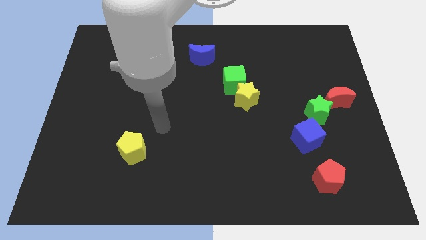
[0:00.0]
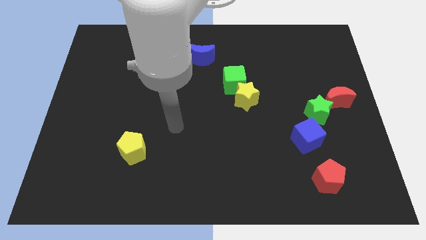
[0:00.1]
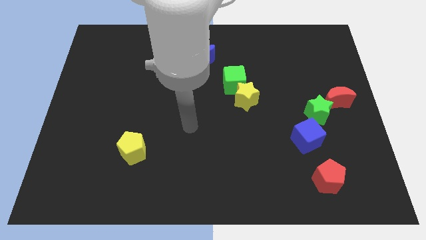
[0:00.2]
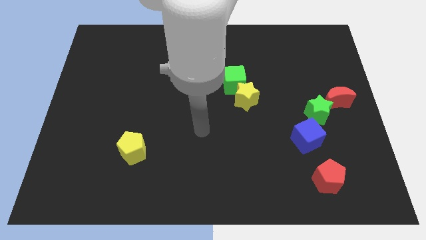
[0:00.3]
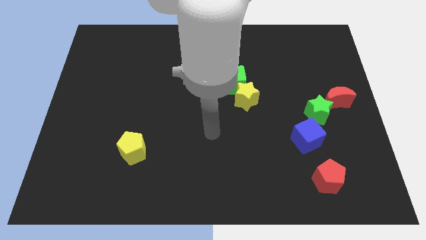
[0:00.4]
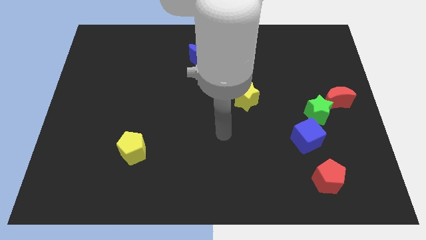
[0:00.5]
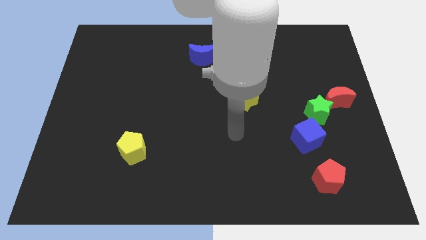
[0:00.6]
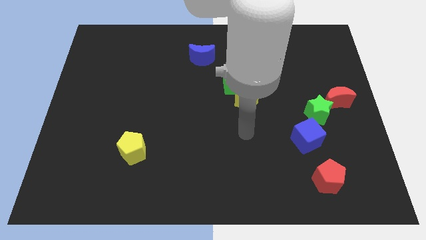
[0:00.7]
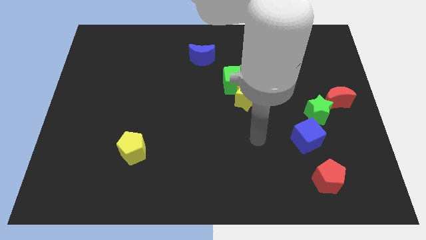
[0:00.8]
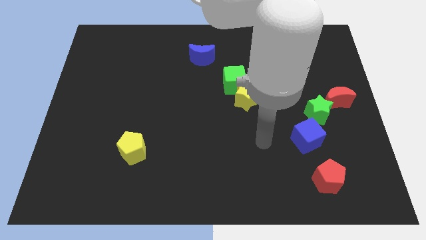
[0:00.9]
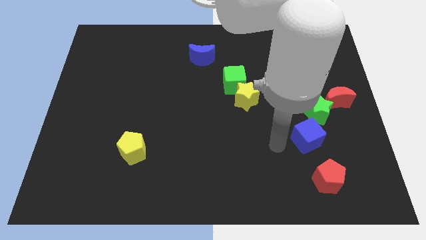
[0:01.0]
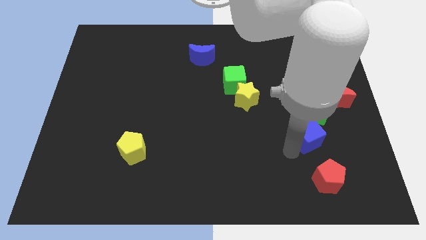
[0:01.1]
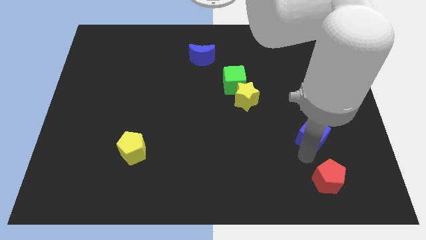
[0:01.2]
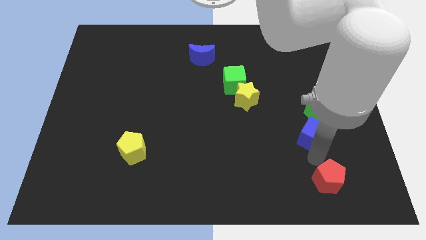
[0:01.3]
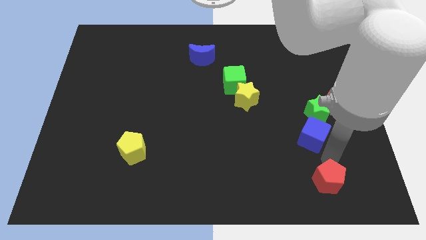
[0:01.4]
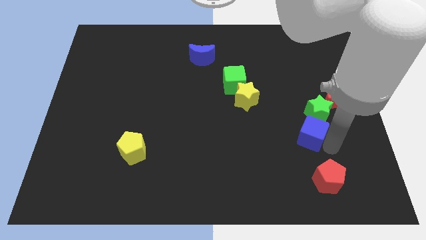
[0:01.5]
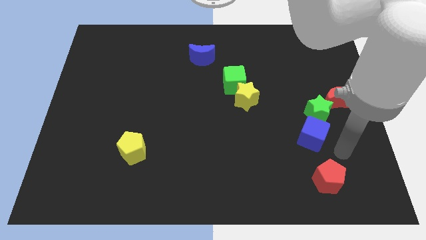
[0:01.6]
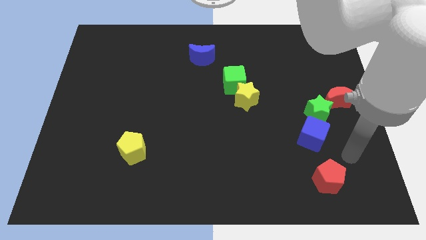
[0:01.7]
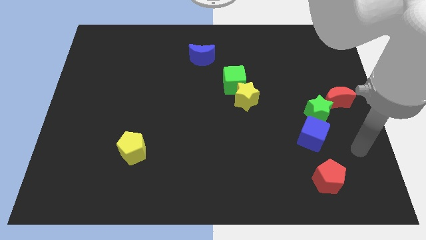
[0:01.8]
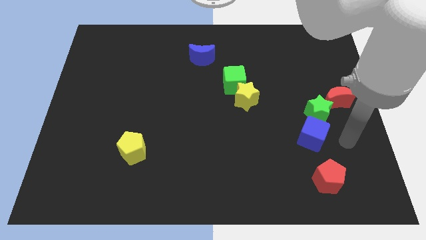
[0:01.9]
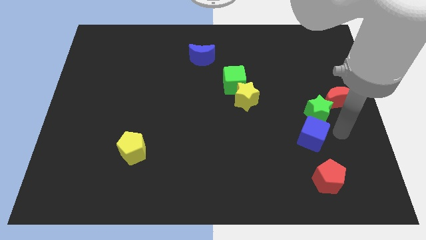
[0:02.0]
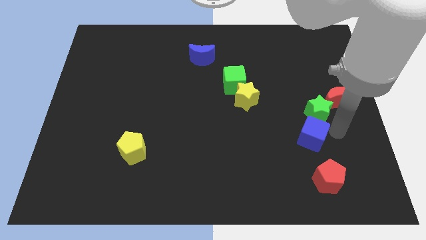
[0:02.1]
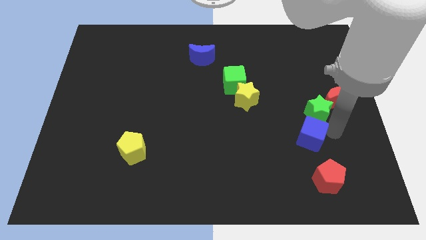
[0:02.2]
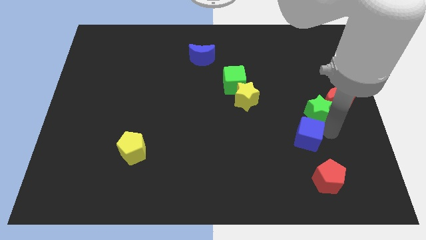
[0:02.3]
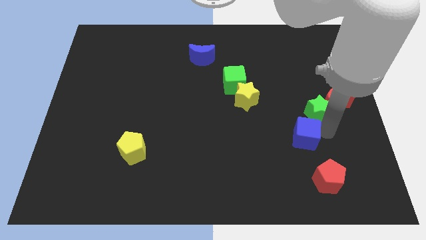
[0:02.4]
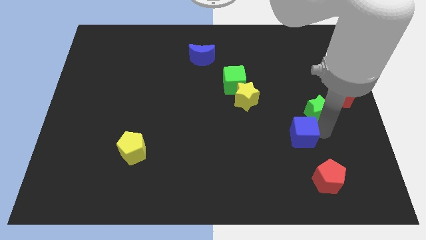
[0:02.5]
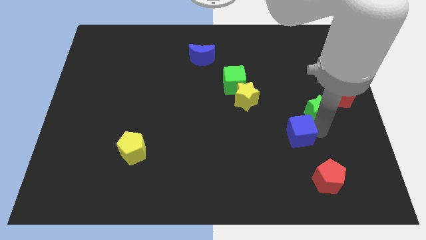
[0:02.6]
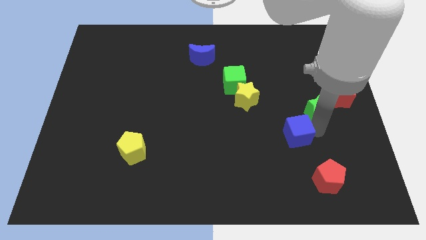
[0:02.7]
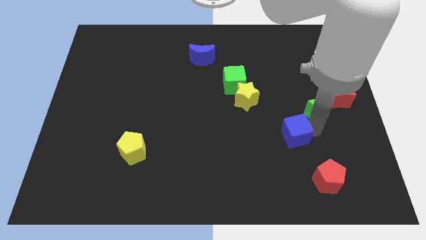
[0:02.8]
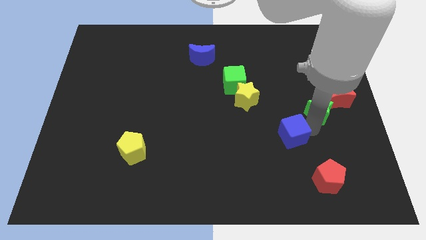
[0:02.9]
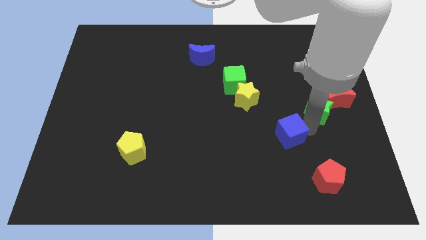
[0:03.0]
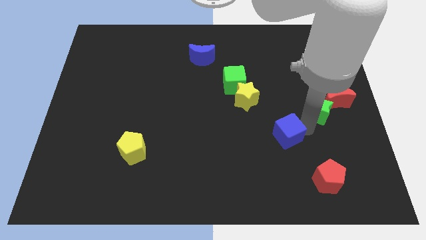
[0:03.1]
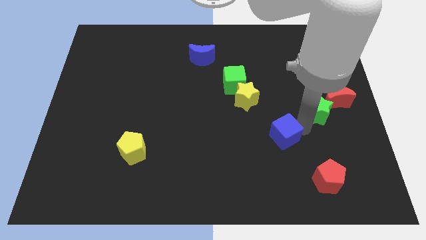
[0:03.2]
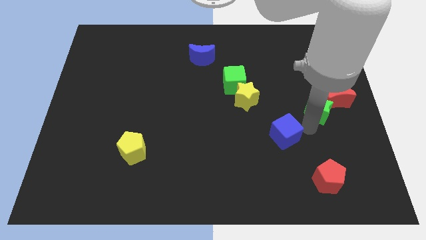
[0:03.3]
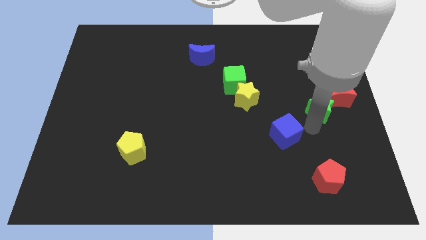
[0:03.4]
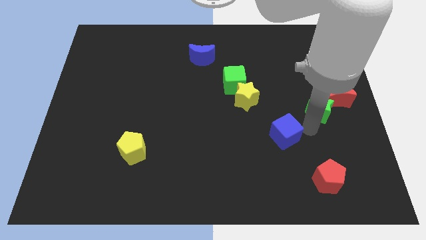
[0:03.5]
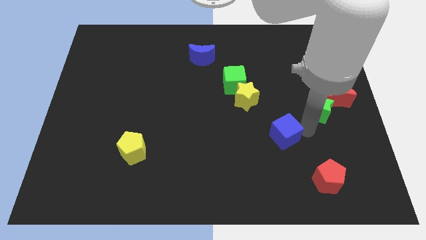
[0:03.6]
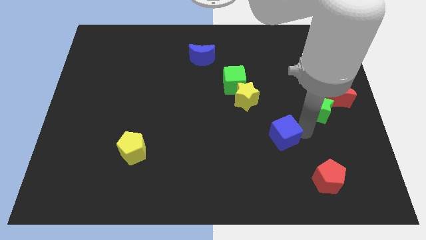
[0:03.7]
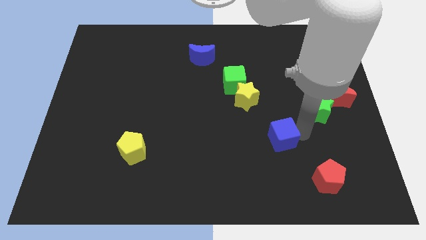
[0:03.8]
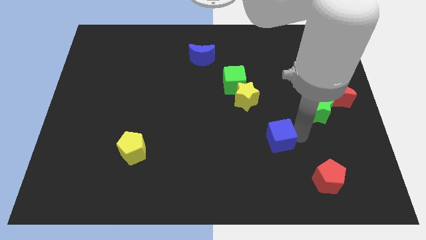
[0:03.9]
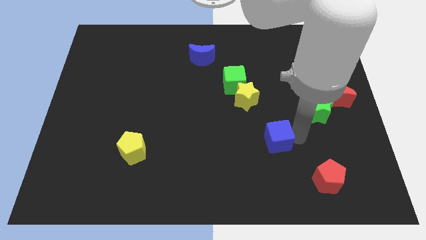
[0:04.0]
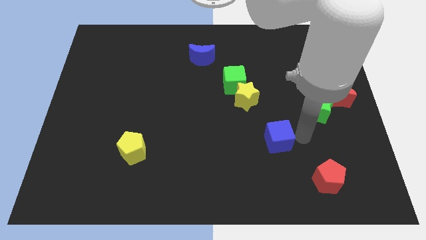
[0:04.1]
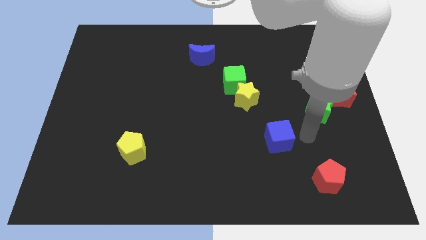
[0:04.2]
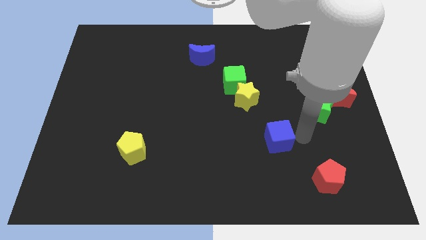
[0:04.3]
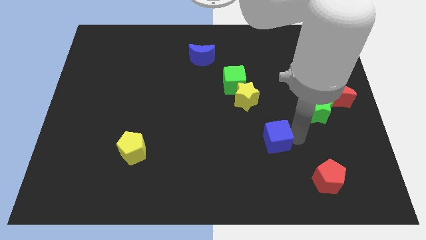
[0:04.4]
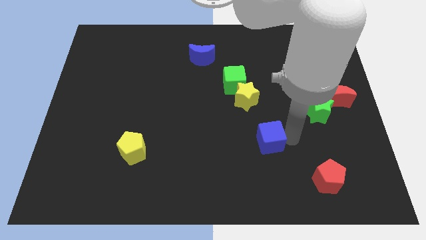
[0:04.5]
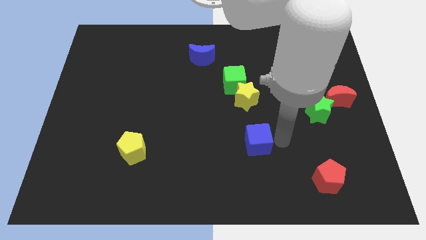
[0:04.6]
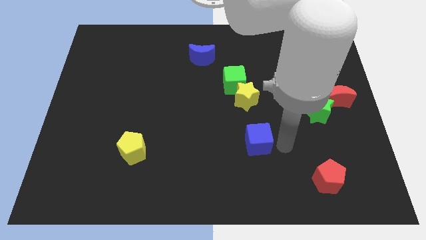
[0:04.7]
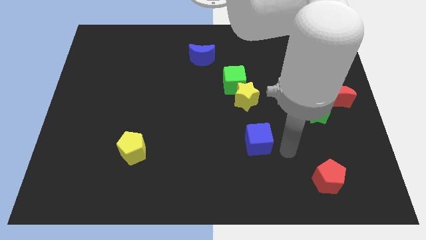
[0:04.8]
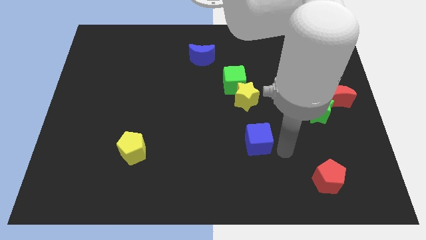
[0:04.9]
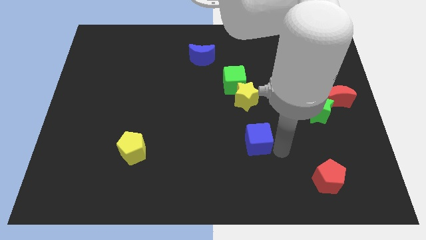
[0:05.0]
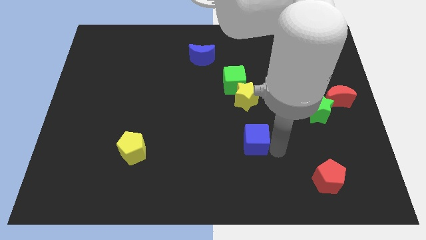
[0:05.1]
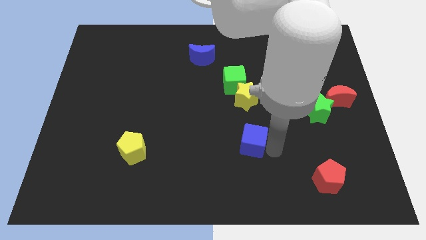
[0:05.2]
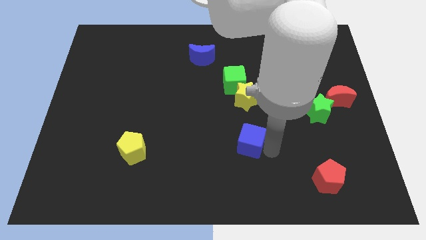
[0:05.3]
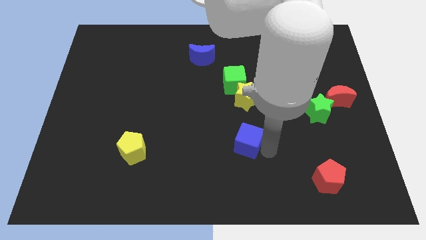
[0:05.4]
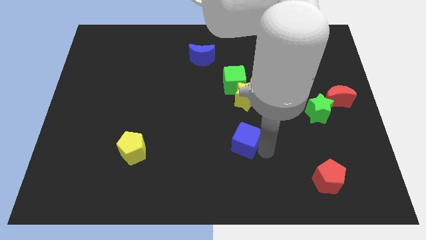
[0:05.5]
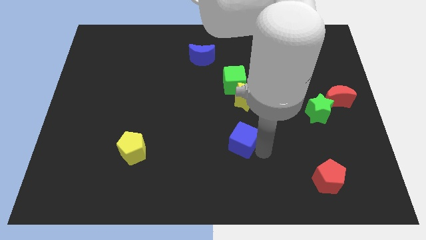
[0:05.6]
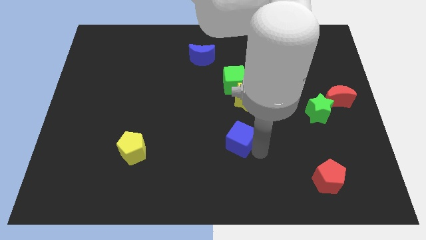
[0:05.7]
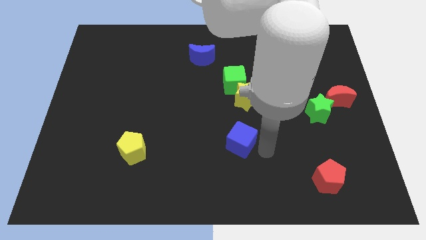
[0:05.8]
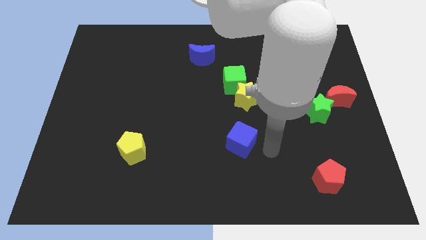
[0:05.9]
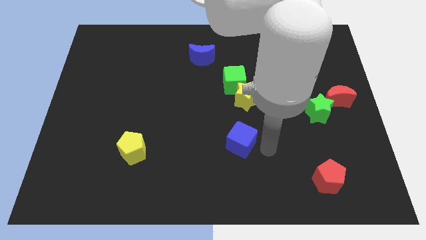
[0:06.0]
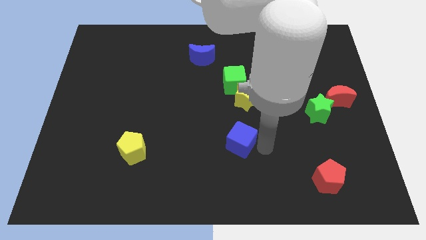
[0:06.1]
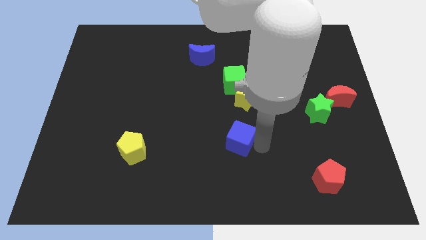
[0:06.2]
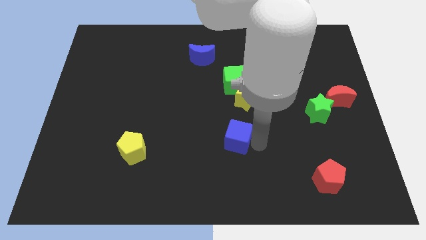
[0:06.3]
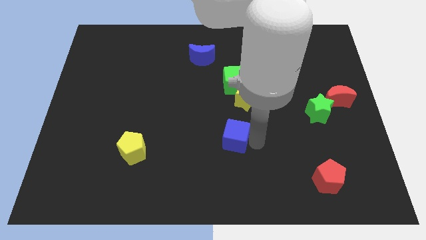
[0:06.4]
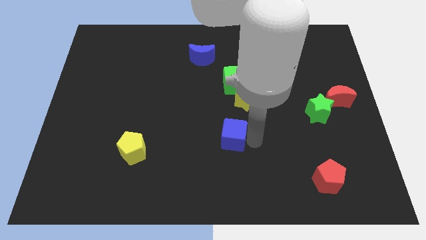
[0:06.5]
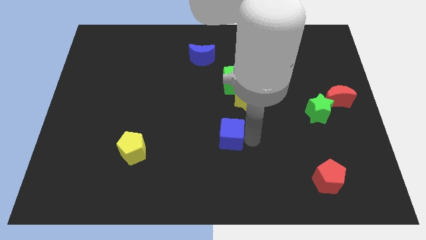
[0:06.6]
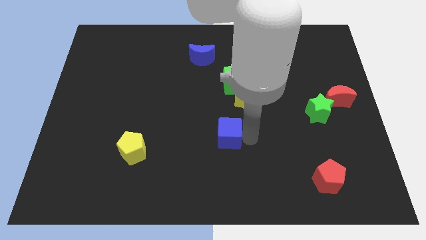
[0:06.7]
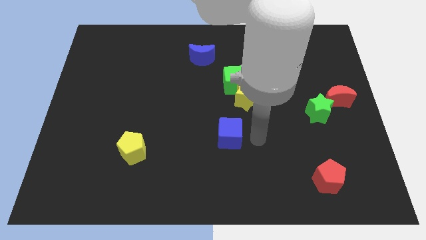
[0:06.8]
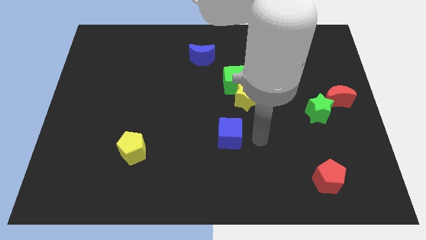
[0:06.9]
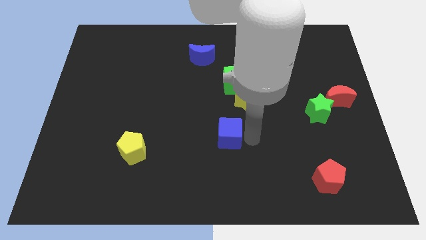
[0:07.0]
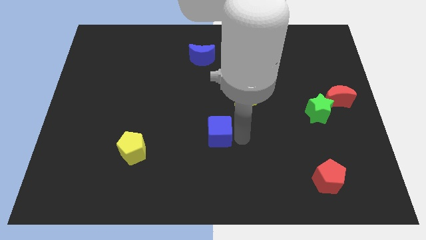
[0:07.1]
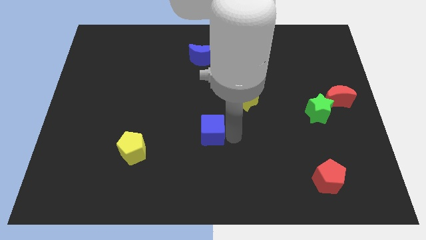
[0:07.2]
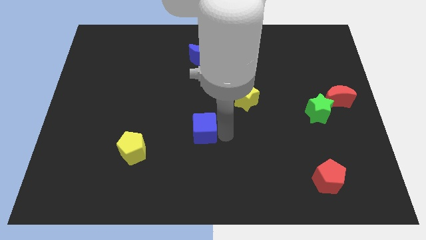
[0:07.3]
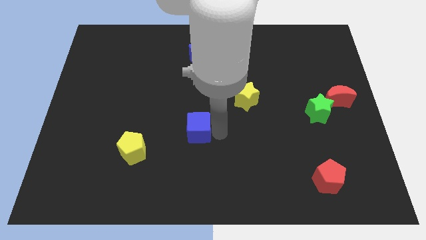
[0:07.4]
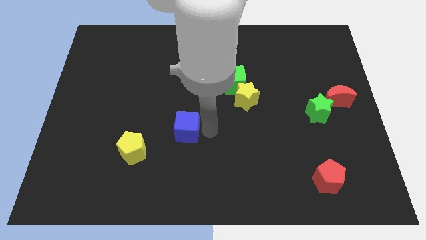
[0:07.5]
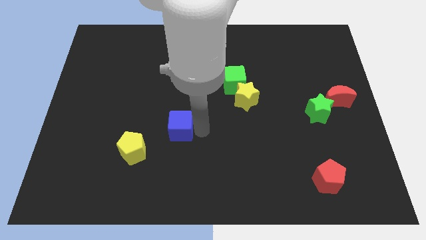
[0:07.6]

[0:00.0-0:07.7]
put the blue cube diagonally up and to the right of the yellow pentagon

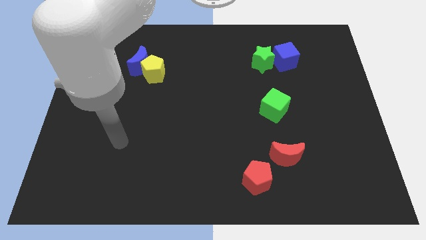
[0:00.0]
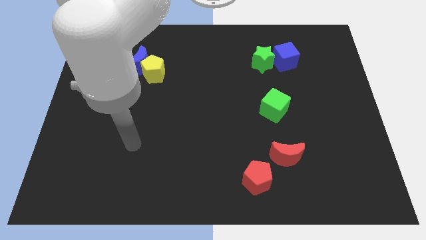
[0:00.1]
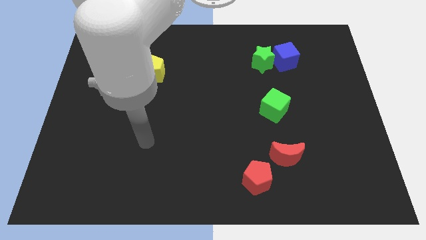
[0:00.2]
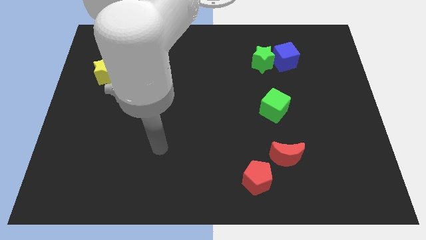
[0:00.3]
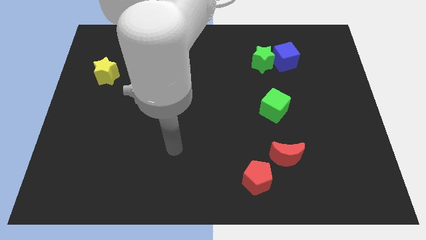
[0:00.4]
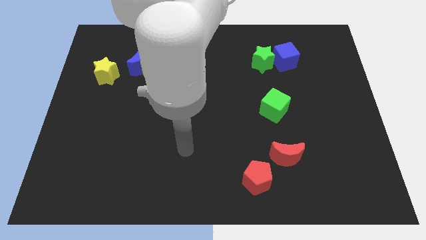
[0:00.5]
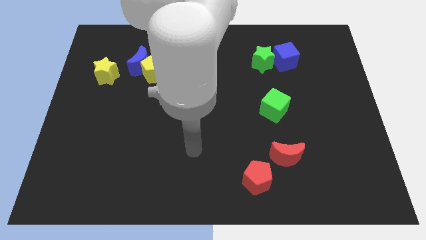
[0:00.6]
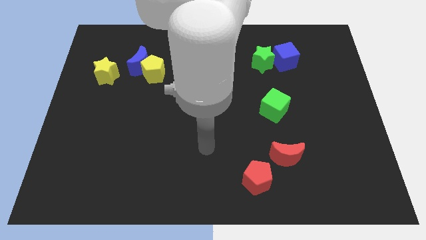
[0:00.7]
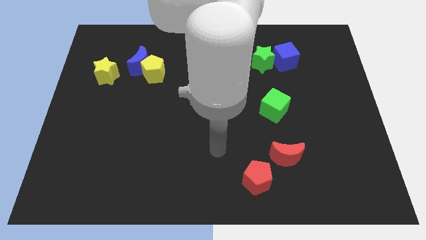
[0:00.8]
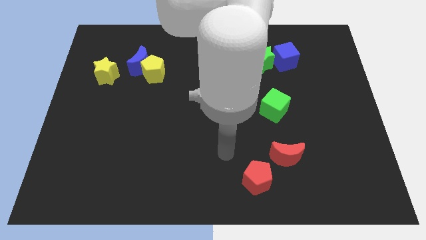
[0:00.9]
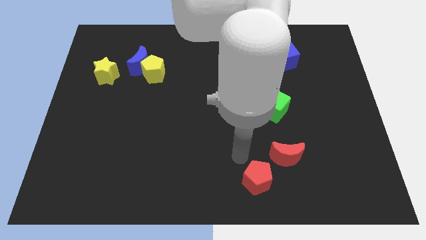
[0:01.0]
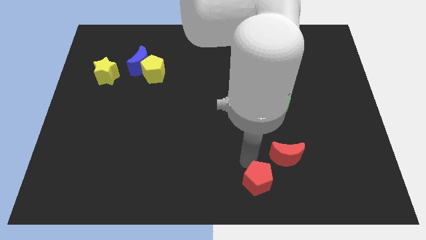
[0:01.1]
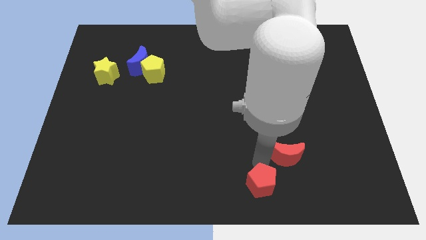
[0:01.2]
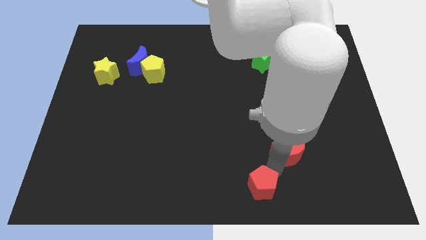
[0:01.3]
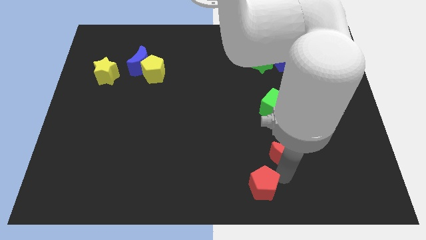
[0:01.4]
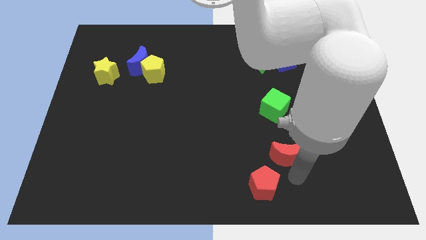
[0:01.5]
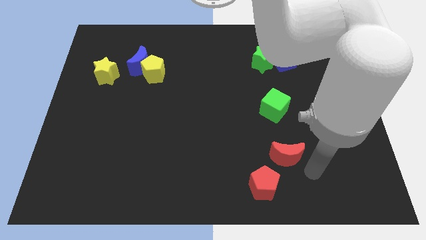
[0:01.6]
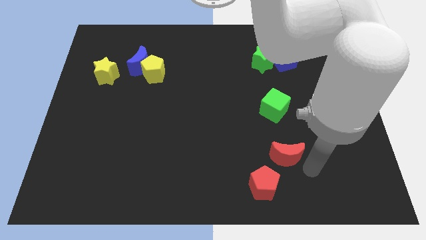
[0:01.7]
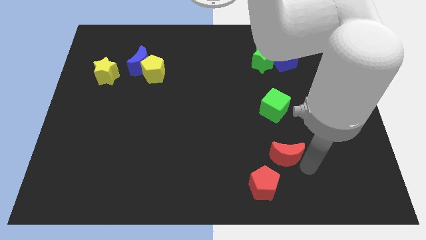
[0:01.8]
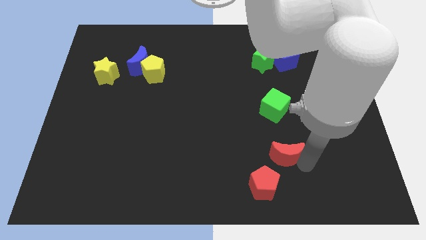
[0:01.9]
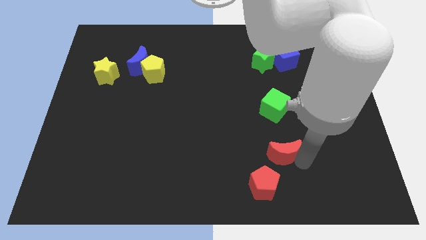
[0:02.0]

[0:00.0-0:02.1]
put the red moon to the top of the red pentagon
